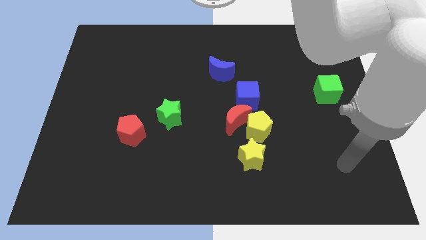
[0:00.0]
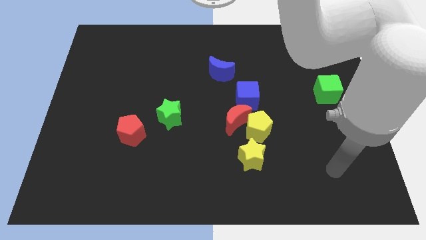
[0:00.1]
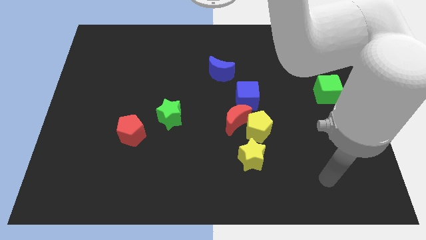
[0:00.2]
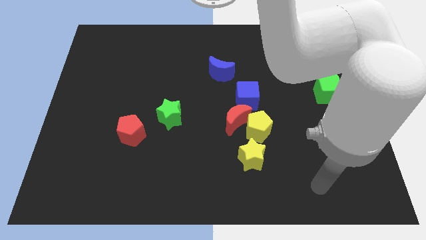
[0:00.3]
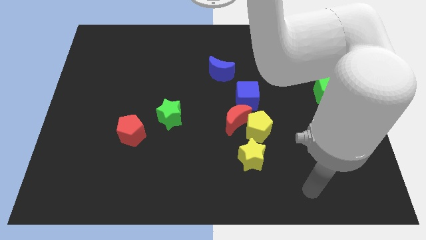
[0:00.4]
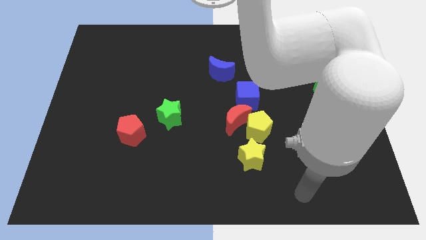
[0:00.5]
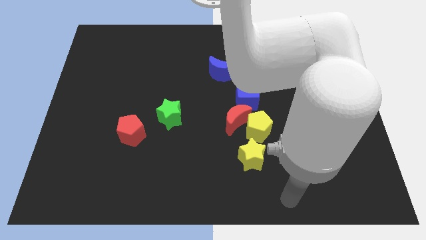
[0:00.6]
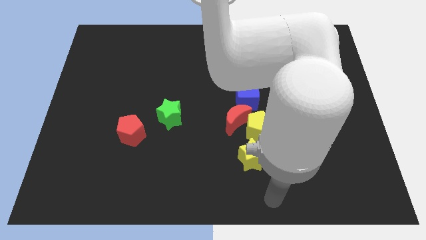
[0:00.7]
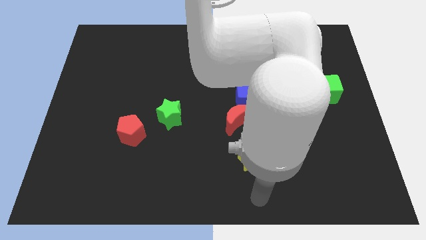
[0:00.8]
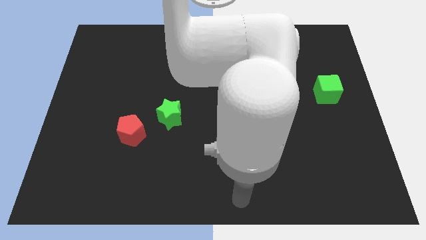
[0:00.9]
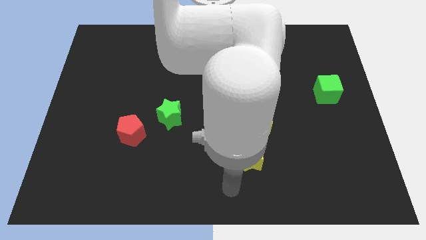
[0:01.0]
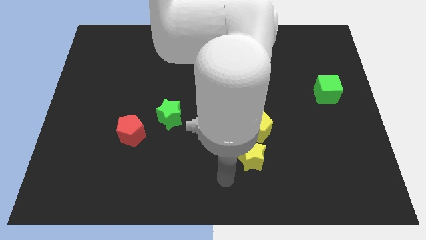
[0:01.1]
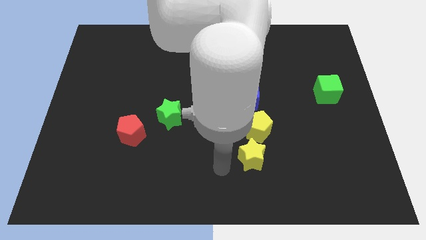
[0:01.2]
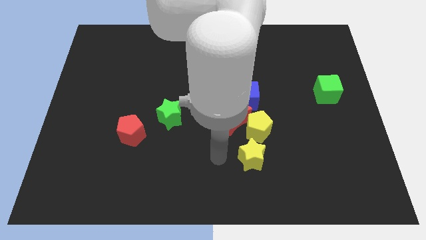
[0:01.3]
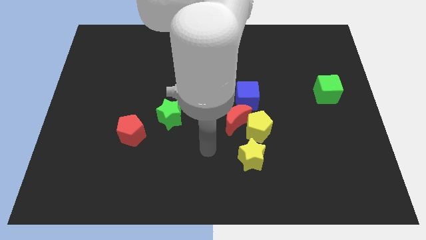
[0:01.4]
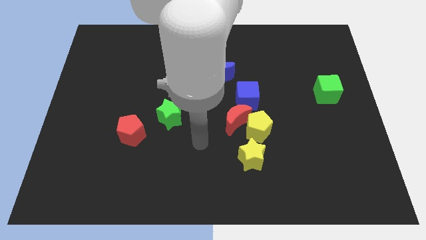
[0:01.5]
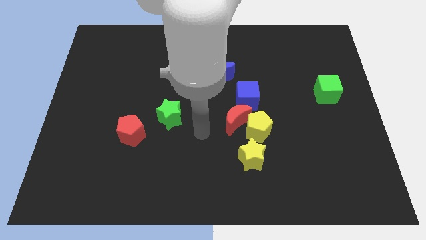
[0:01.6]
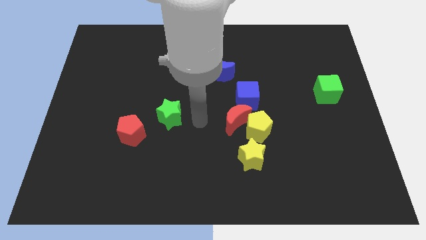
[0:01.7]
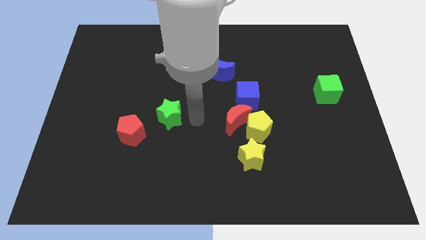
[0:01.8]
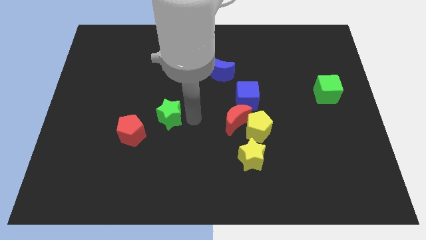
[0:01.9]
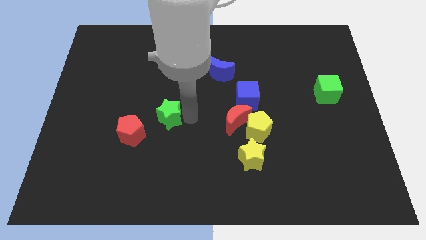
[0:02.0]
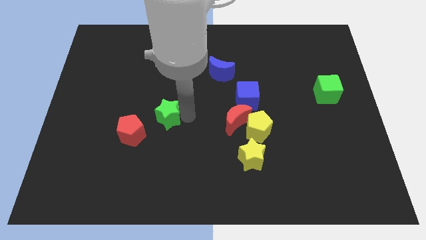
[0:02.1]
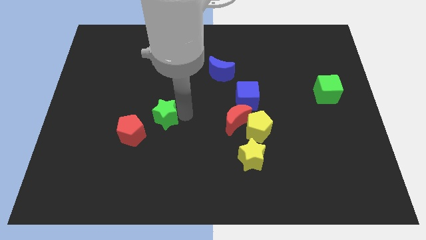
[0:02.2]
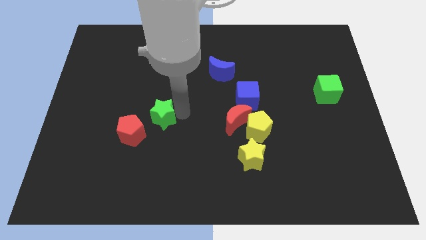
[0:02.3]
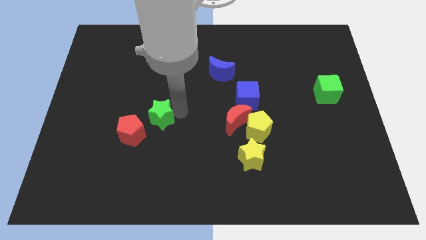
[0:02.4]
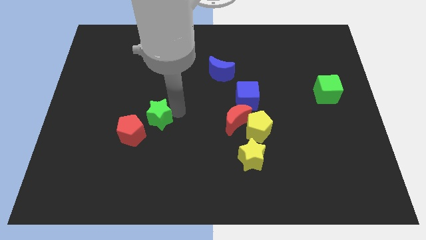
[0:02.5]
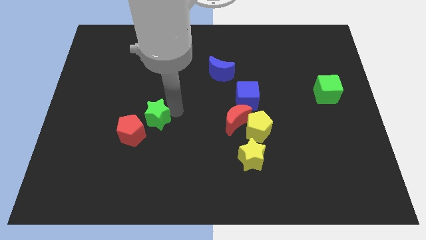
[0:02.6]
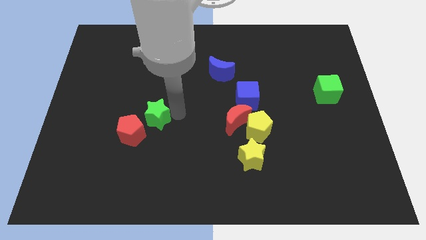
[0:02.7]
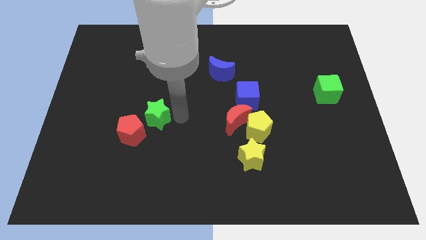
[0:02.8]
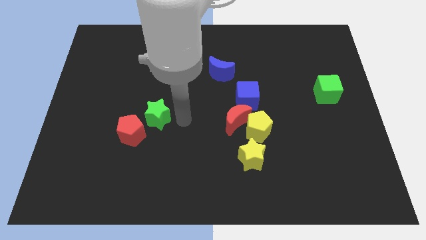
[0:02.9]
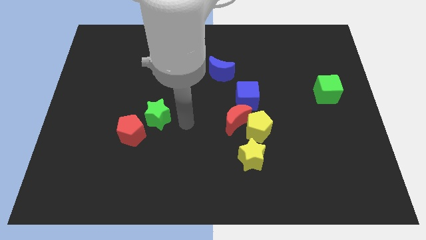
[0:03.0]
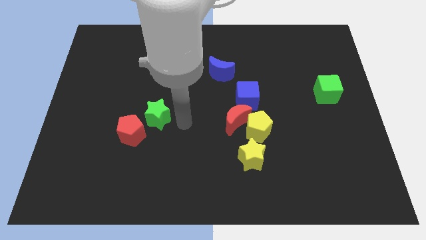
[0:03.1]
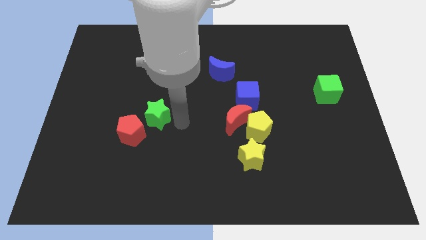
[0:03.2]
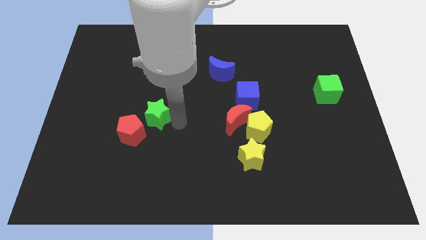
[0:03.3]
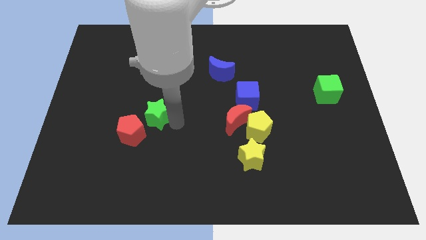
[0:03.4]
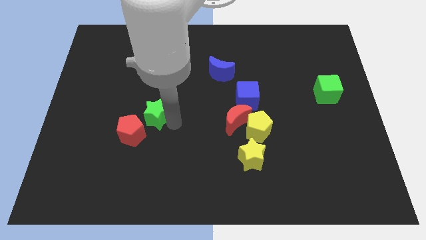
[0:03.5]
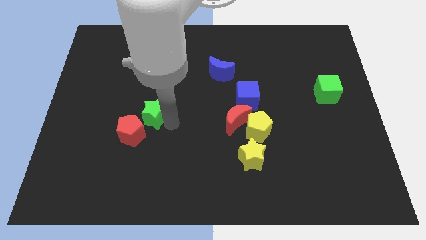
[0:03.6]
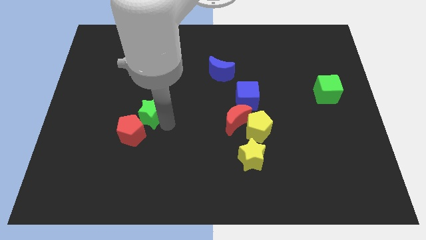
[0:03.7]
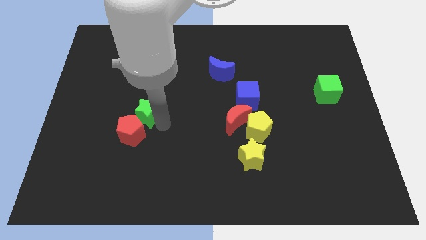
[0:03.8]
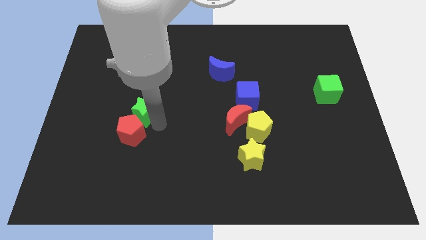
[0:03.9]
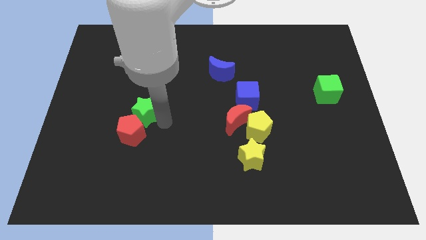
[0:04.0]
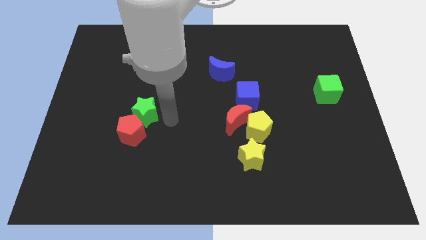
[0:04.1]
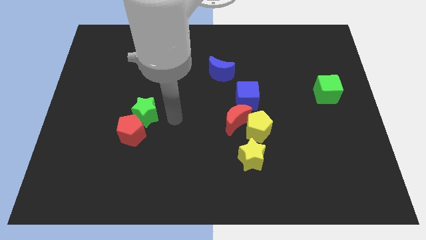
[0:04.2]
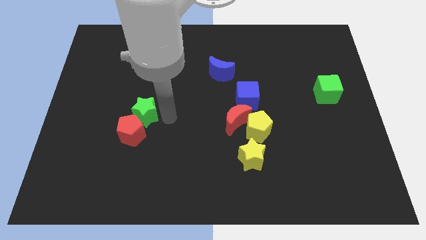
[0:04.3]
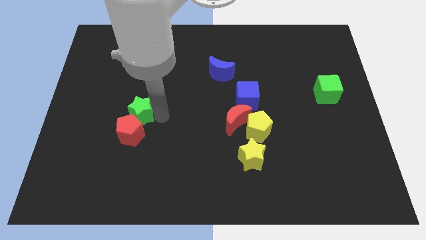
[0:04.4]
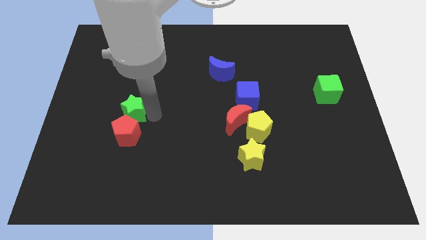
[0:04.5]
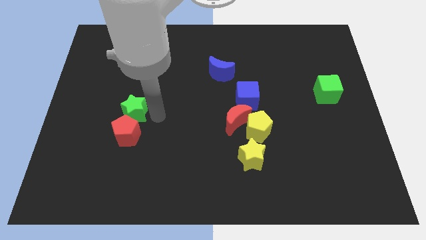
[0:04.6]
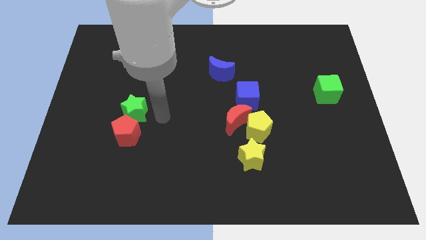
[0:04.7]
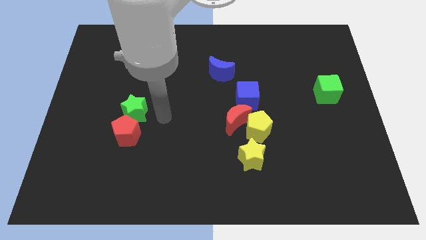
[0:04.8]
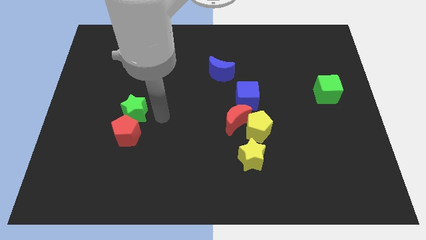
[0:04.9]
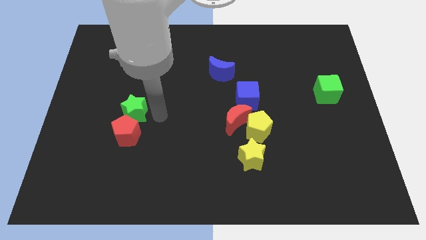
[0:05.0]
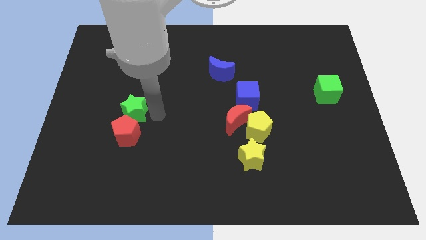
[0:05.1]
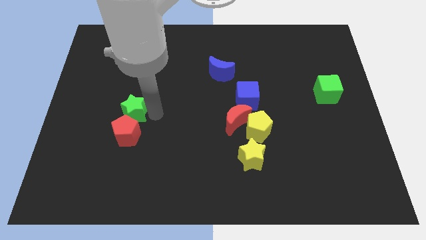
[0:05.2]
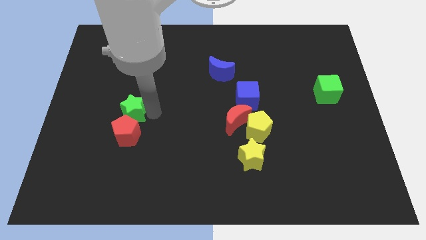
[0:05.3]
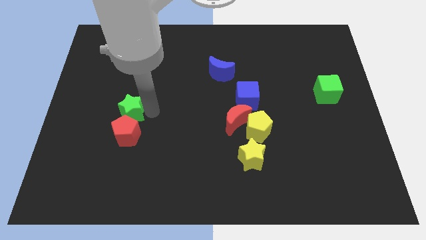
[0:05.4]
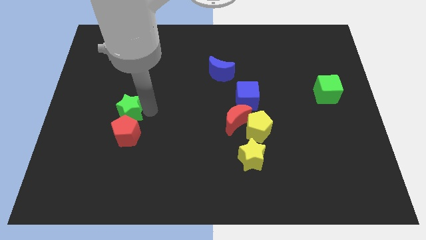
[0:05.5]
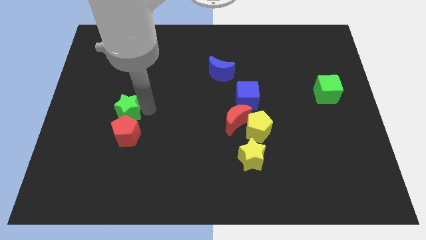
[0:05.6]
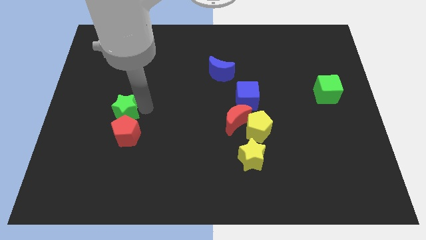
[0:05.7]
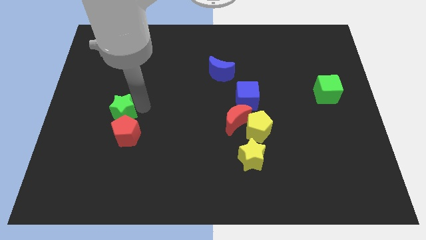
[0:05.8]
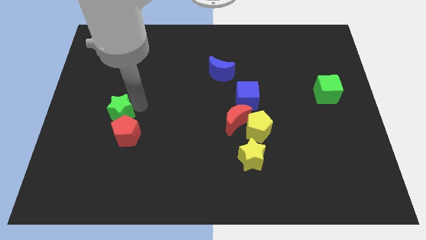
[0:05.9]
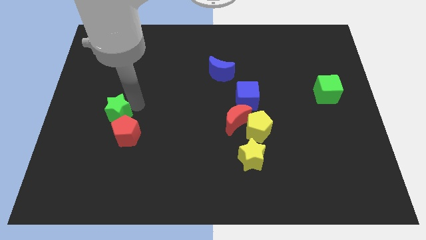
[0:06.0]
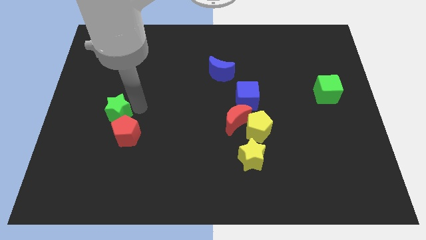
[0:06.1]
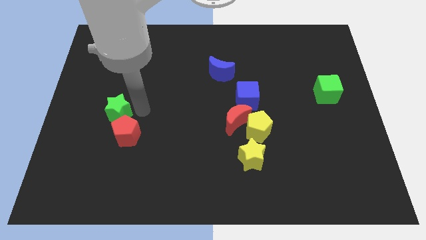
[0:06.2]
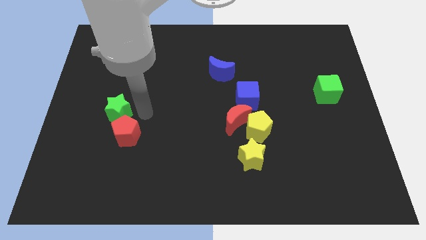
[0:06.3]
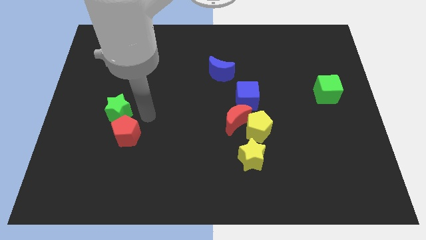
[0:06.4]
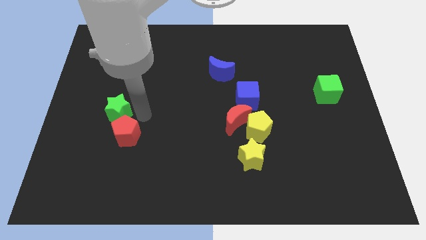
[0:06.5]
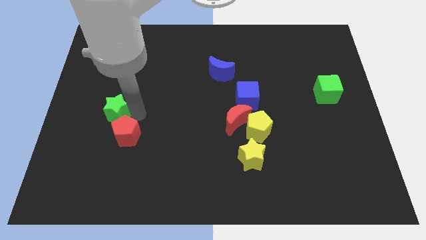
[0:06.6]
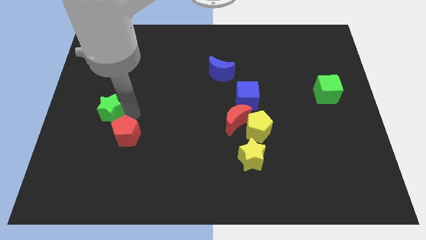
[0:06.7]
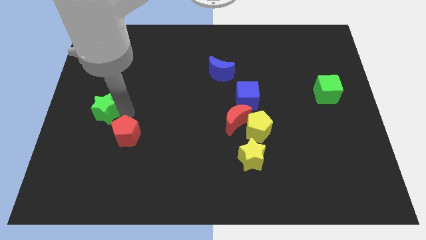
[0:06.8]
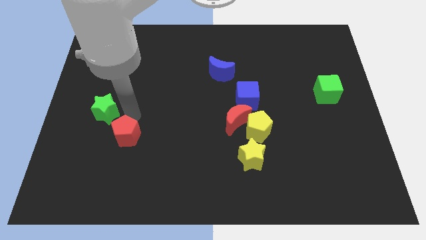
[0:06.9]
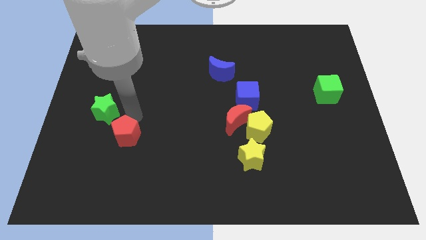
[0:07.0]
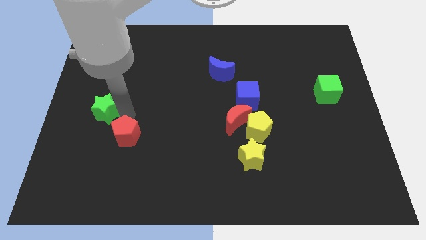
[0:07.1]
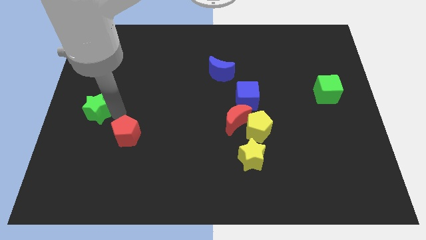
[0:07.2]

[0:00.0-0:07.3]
put the green star to the center left
